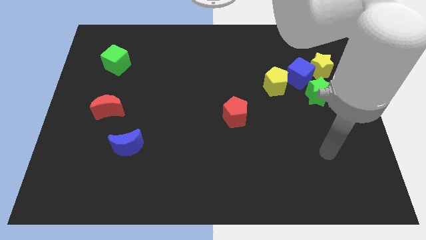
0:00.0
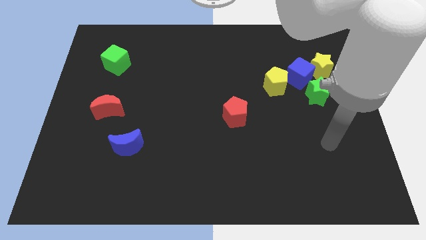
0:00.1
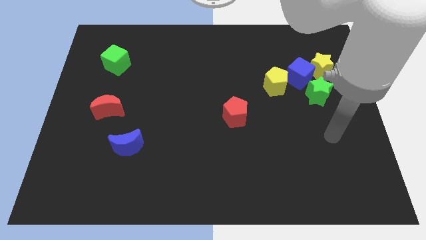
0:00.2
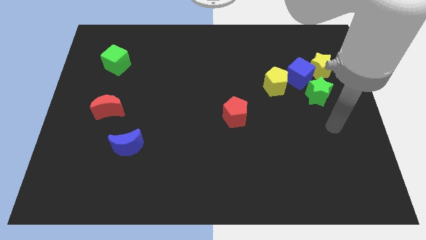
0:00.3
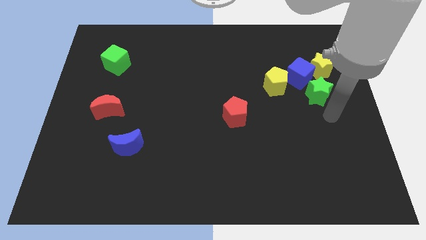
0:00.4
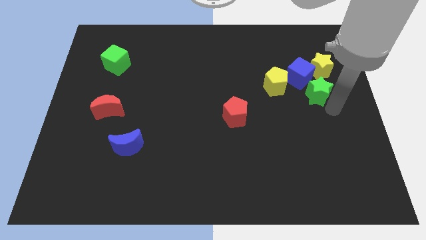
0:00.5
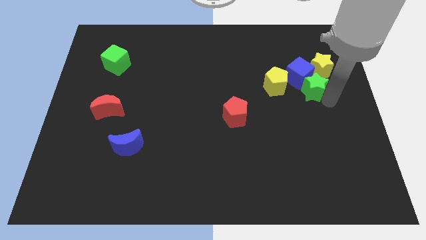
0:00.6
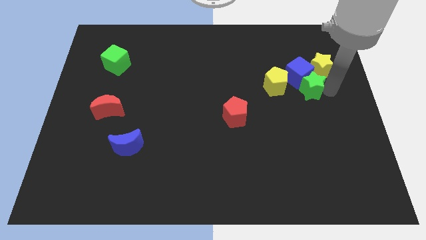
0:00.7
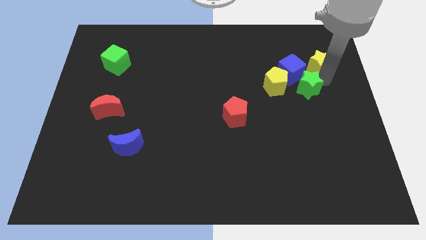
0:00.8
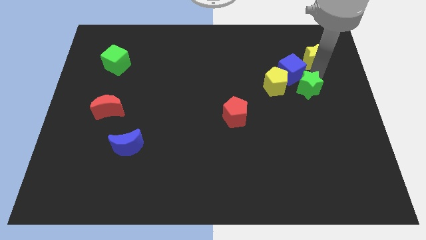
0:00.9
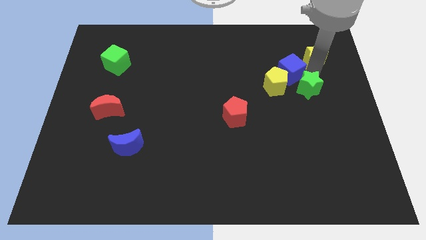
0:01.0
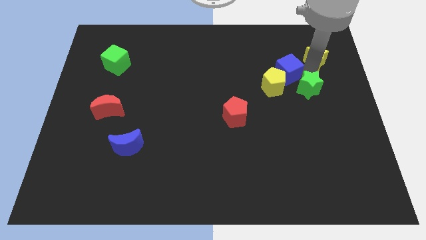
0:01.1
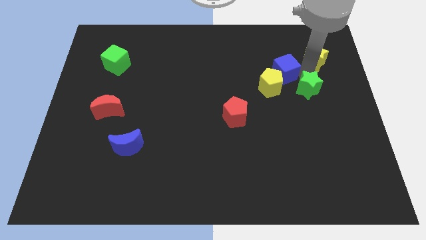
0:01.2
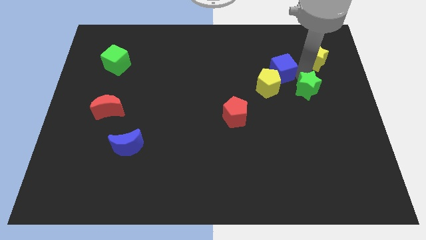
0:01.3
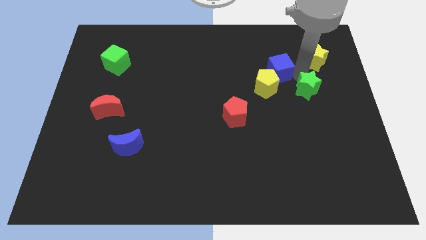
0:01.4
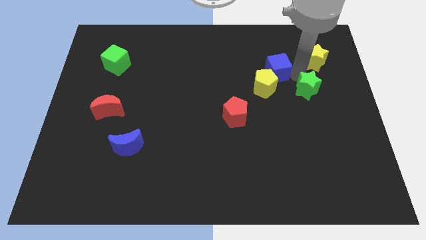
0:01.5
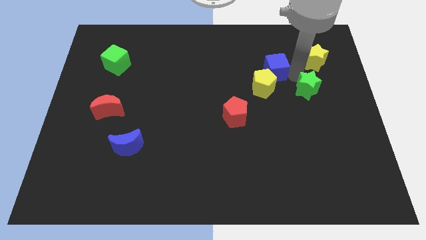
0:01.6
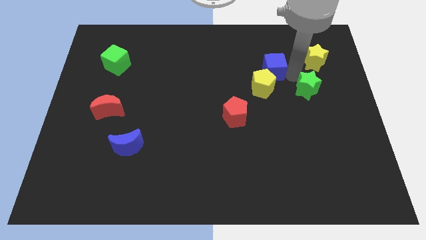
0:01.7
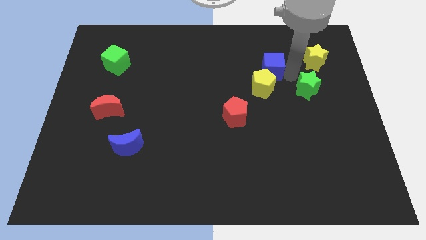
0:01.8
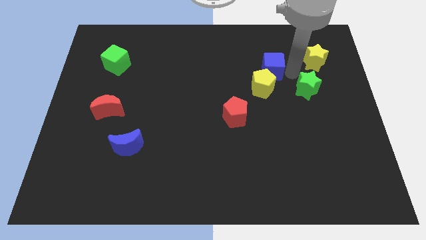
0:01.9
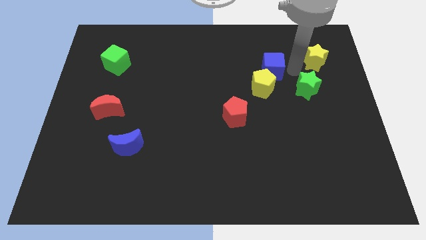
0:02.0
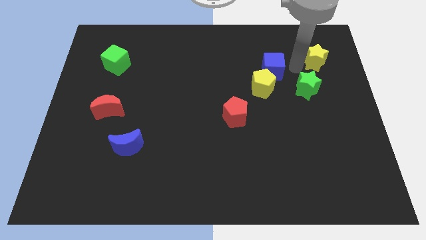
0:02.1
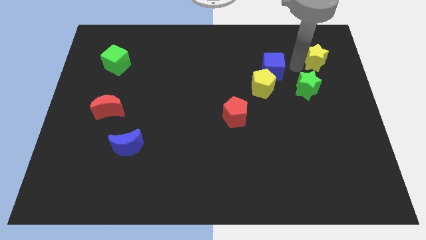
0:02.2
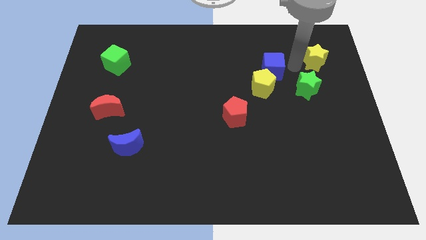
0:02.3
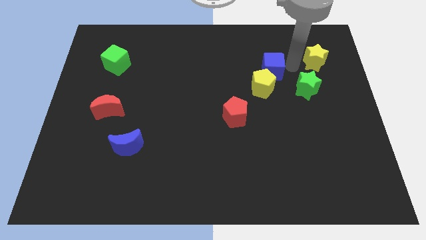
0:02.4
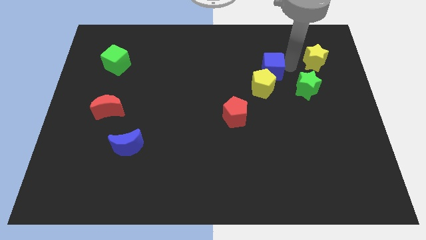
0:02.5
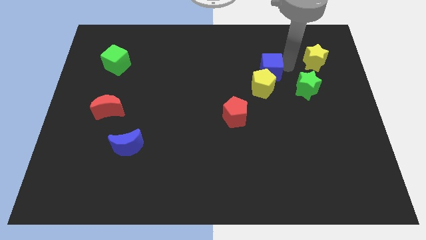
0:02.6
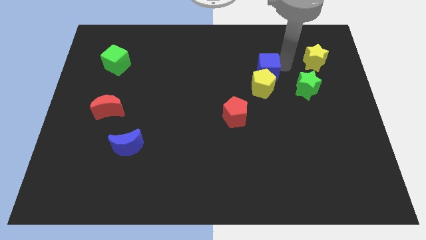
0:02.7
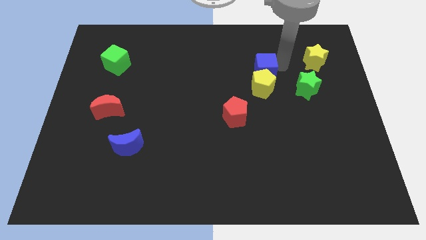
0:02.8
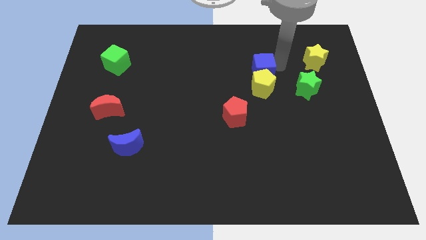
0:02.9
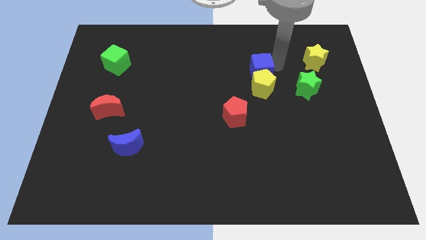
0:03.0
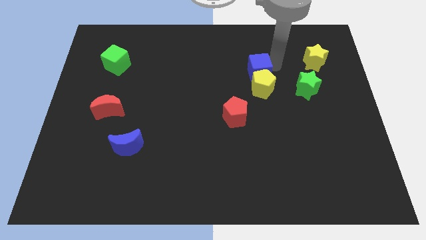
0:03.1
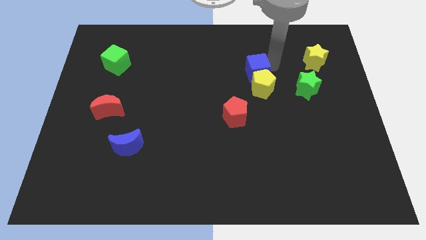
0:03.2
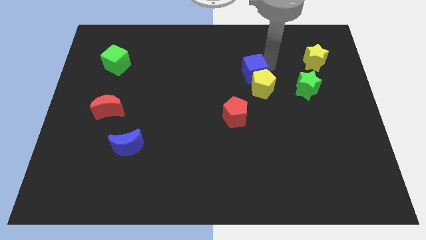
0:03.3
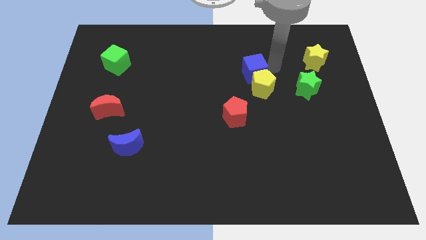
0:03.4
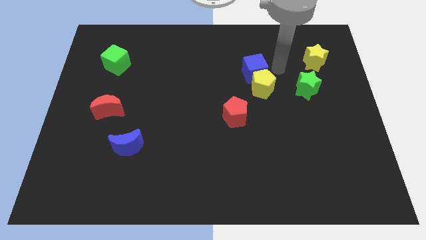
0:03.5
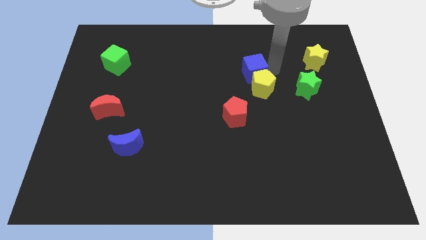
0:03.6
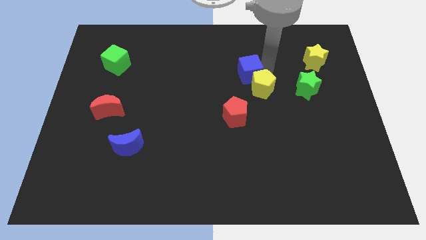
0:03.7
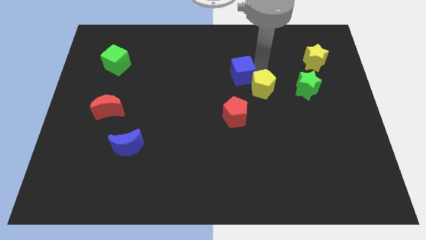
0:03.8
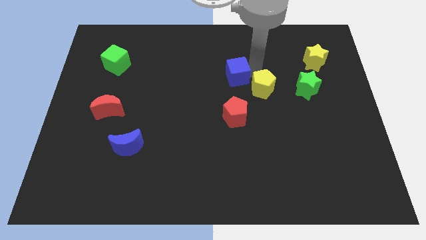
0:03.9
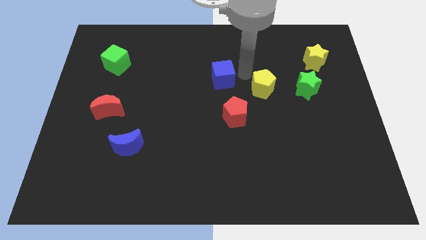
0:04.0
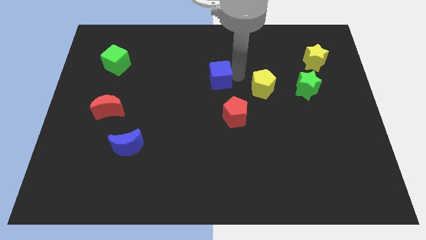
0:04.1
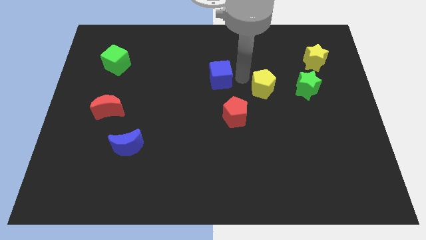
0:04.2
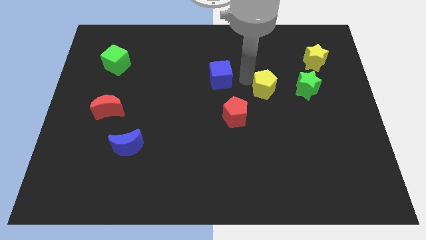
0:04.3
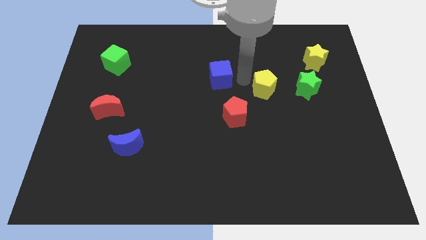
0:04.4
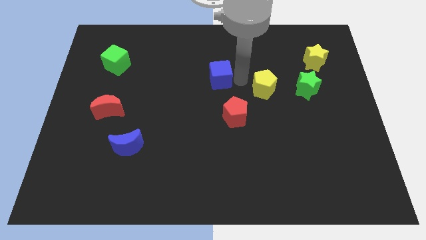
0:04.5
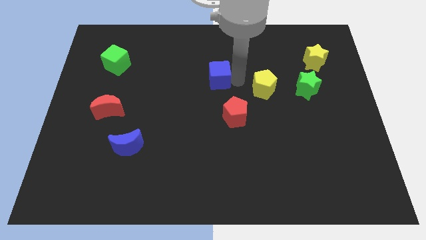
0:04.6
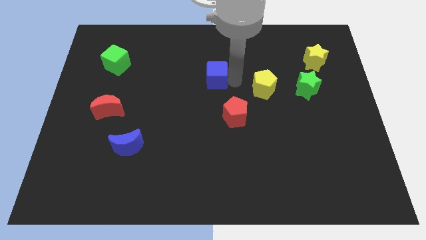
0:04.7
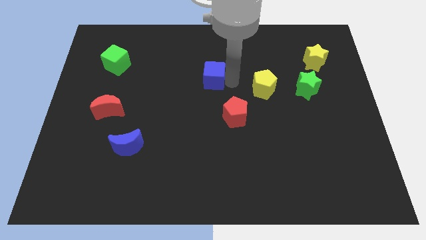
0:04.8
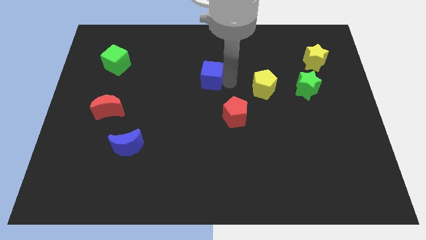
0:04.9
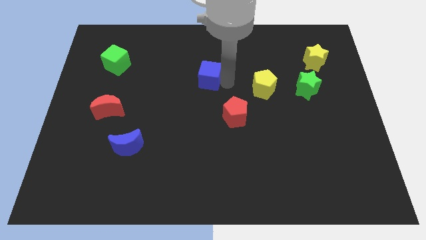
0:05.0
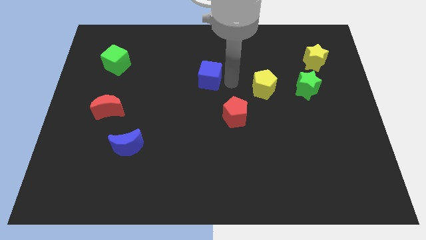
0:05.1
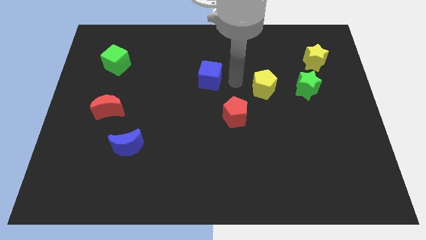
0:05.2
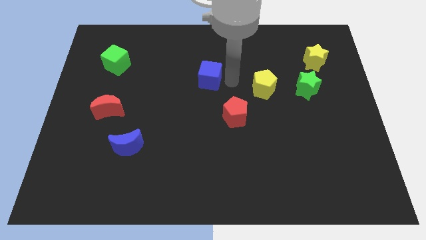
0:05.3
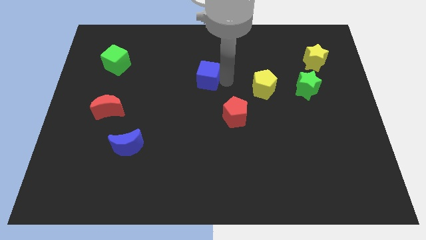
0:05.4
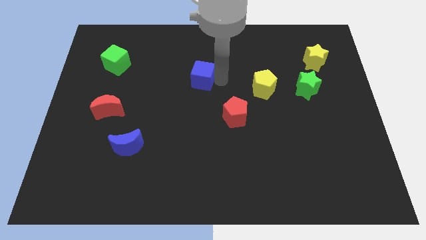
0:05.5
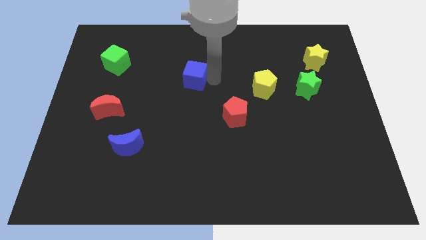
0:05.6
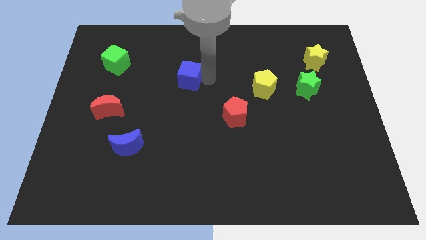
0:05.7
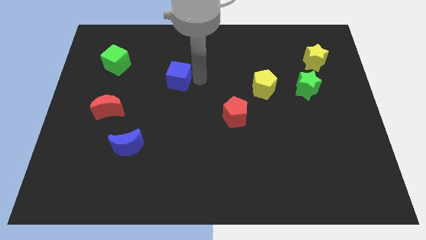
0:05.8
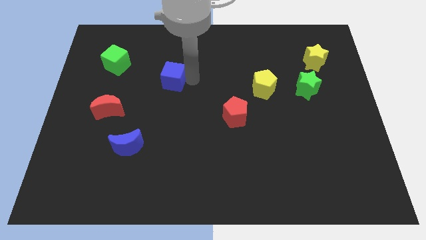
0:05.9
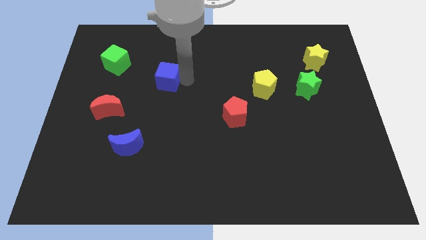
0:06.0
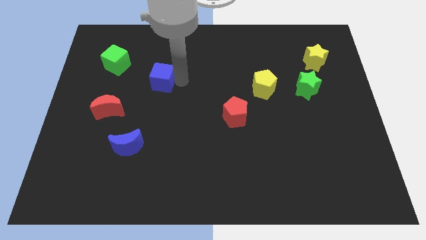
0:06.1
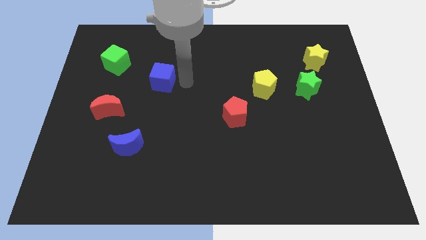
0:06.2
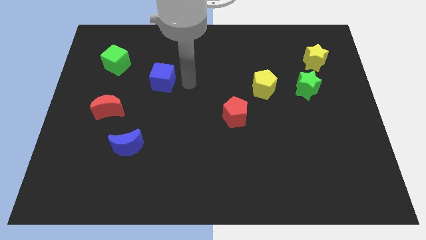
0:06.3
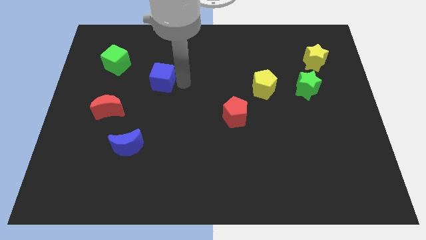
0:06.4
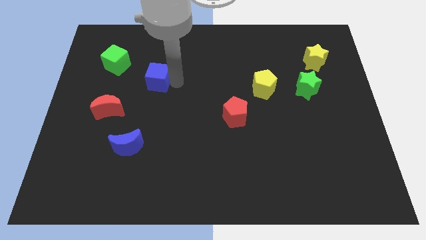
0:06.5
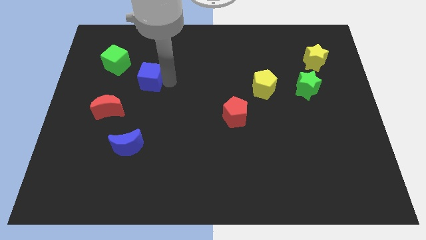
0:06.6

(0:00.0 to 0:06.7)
slide the blue cube diagonally down and to the right of the green cube

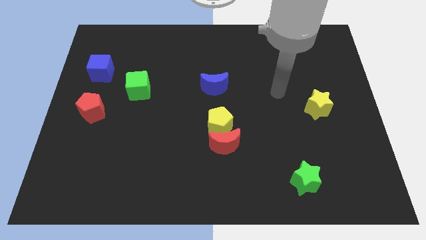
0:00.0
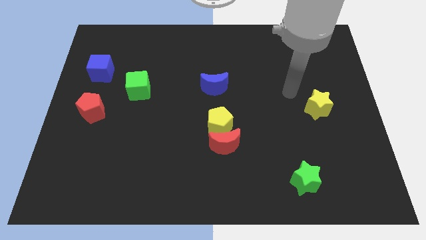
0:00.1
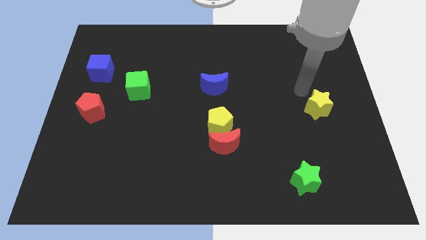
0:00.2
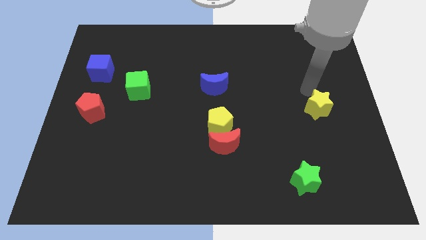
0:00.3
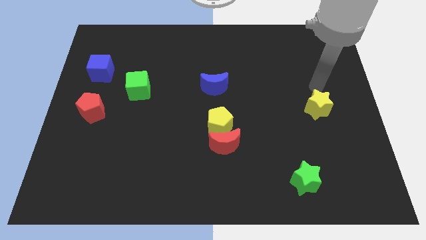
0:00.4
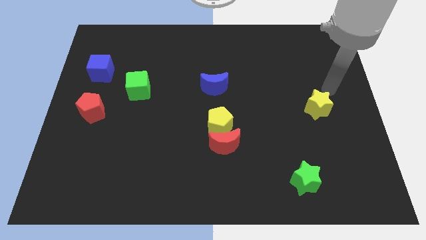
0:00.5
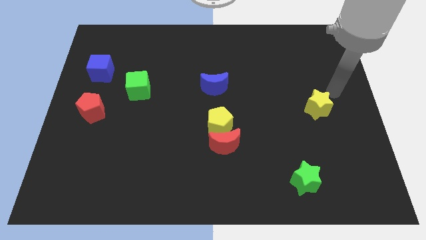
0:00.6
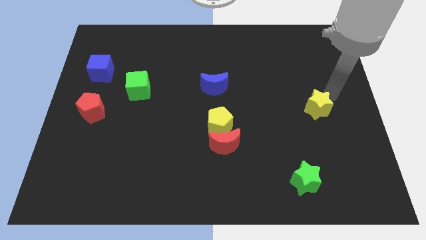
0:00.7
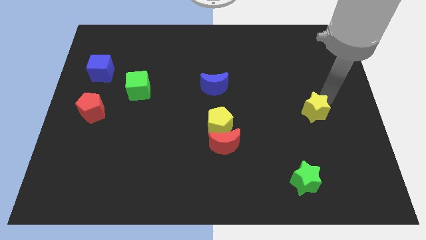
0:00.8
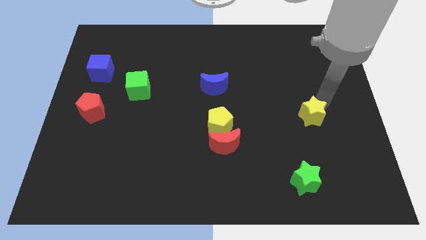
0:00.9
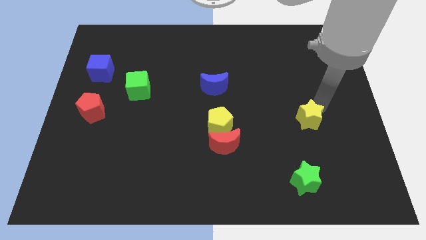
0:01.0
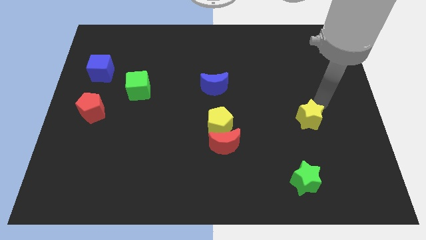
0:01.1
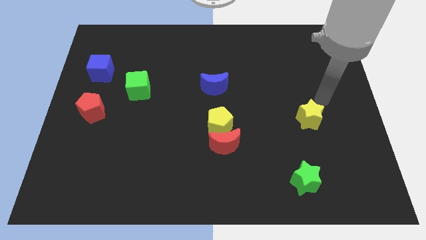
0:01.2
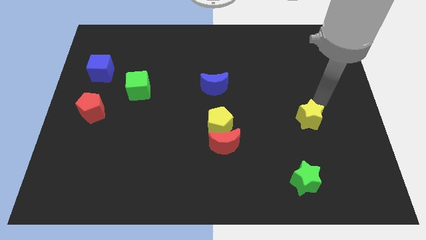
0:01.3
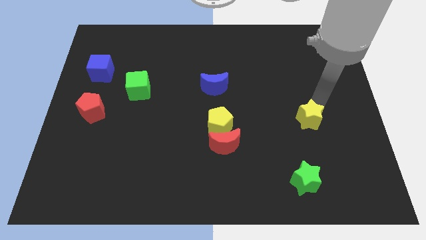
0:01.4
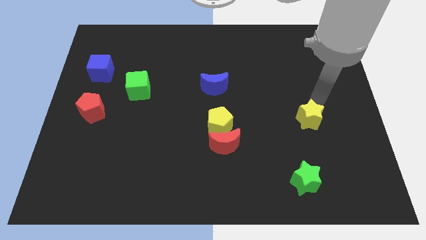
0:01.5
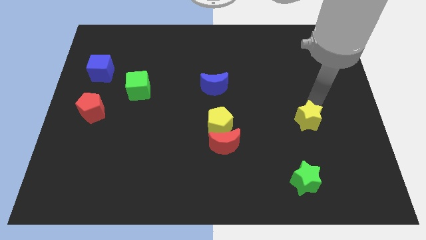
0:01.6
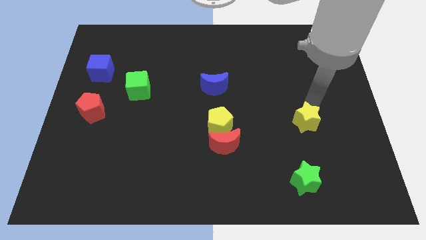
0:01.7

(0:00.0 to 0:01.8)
slide the yellow star to the top side of the green star
